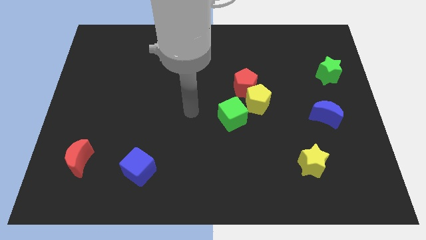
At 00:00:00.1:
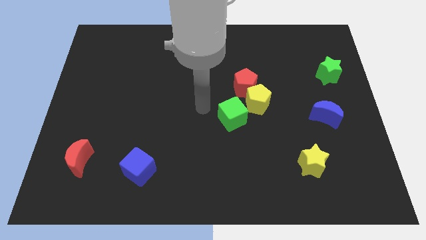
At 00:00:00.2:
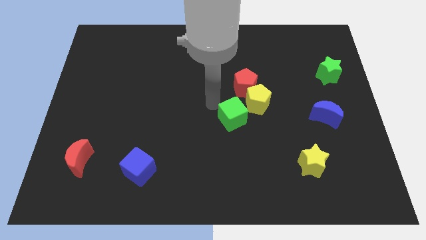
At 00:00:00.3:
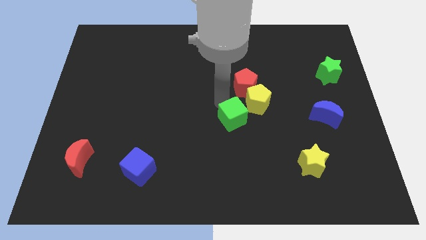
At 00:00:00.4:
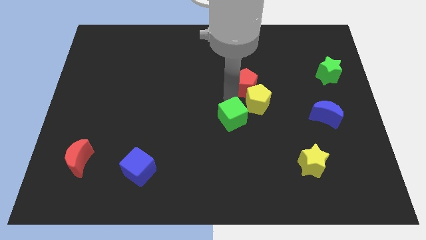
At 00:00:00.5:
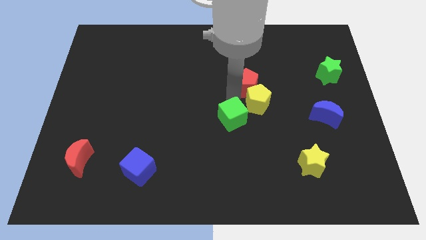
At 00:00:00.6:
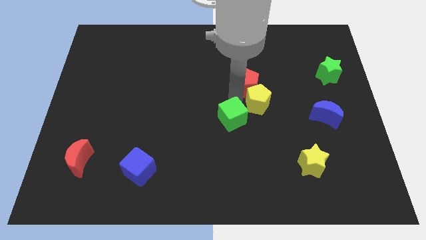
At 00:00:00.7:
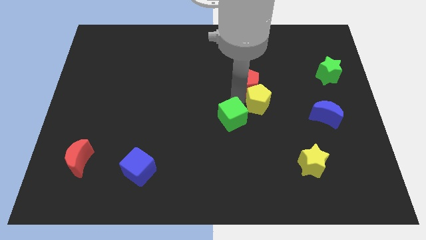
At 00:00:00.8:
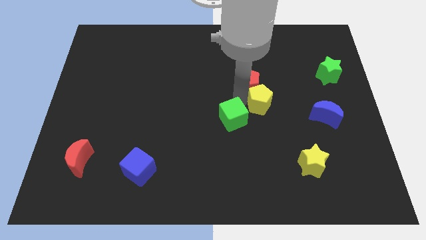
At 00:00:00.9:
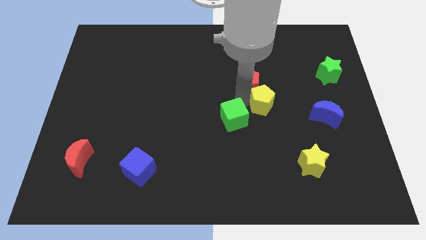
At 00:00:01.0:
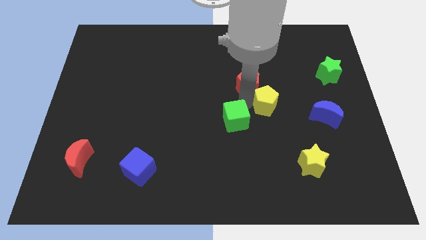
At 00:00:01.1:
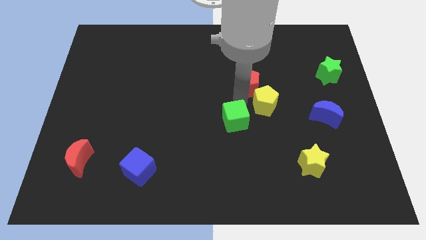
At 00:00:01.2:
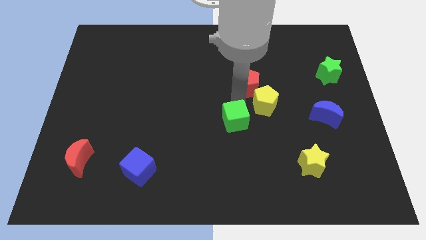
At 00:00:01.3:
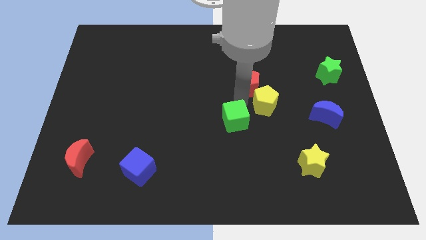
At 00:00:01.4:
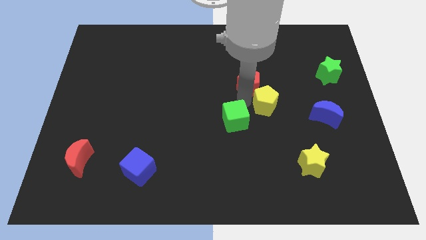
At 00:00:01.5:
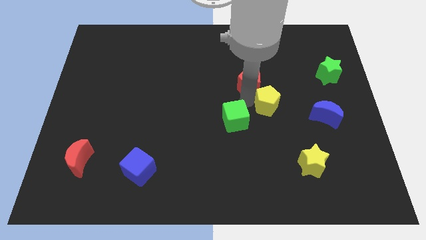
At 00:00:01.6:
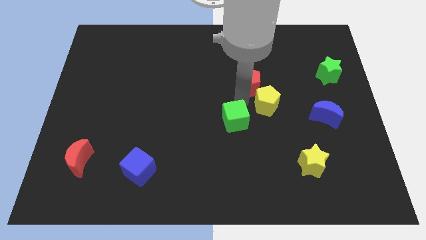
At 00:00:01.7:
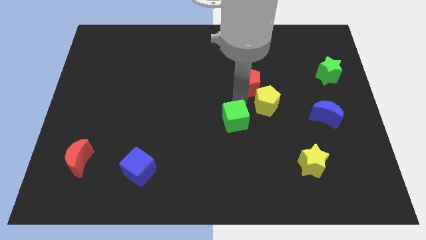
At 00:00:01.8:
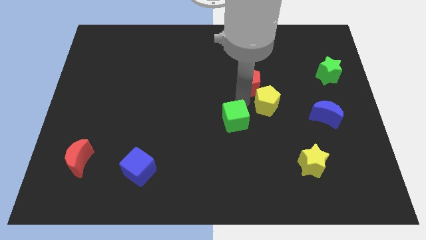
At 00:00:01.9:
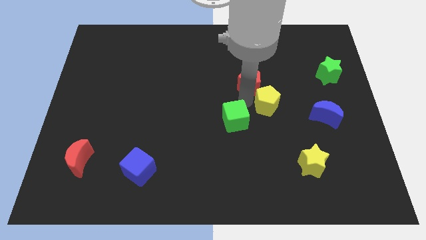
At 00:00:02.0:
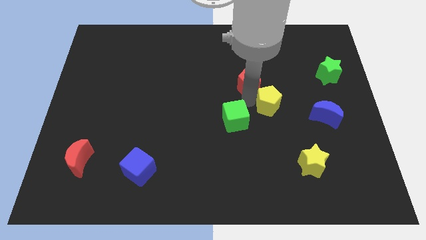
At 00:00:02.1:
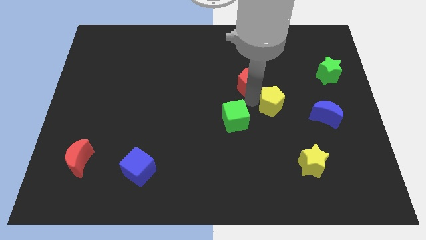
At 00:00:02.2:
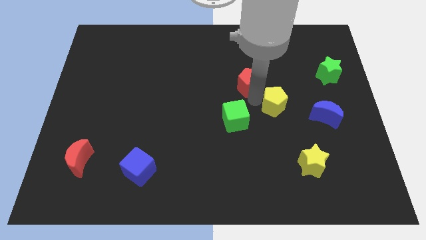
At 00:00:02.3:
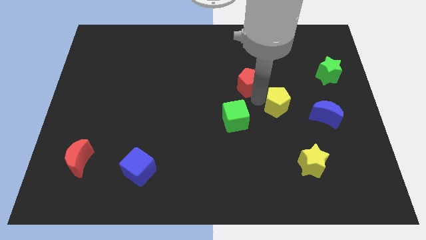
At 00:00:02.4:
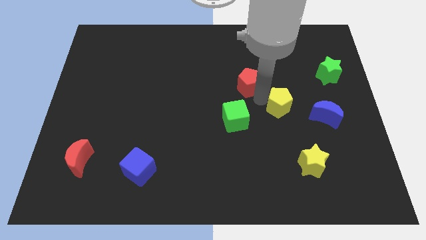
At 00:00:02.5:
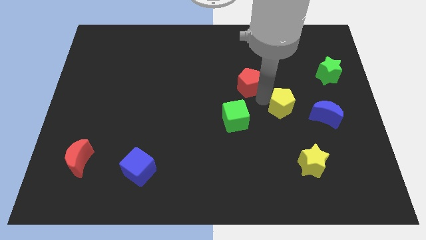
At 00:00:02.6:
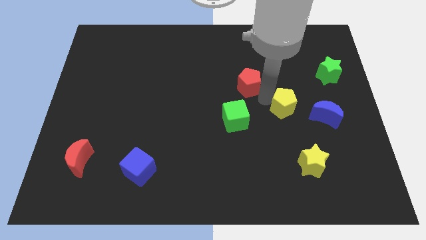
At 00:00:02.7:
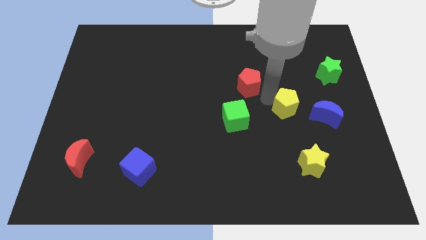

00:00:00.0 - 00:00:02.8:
move the yellow pentagon away from the red pentagon and green cube

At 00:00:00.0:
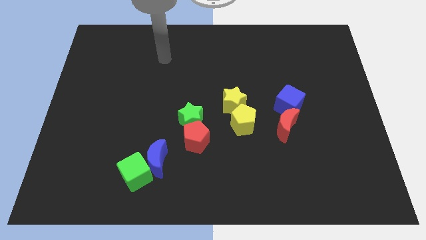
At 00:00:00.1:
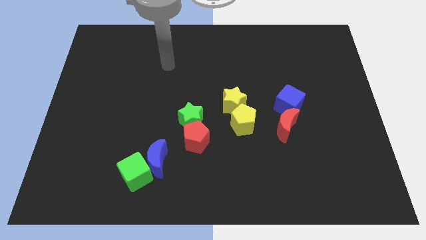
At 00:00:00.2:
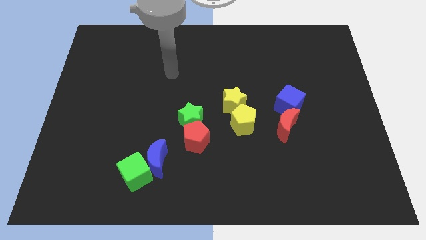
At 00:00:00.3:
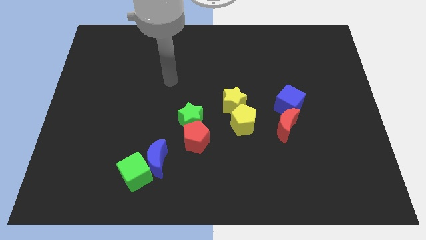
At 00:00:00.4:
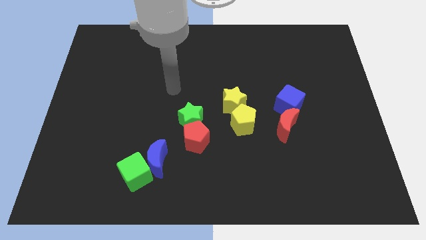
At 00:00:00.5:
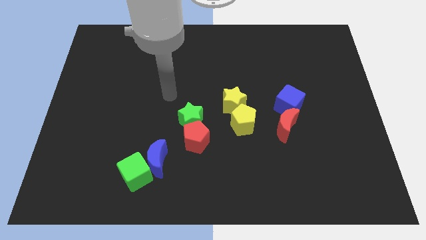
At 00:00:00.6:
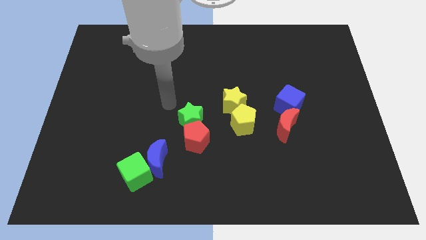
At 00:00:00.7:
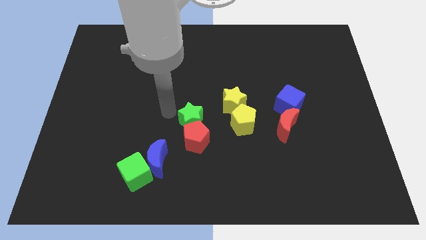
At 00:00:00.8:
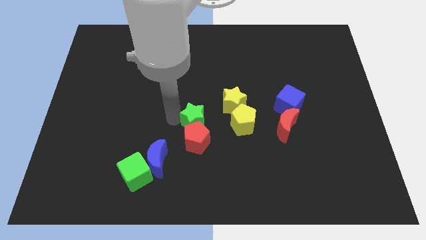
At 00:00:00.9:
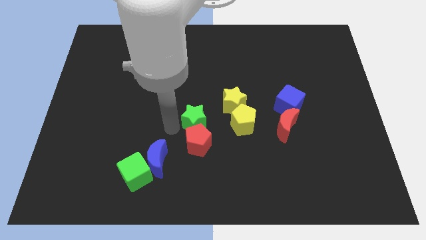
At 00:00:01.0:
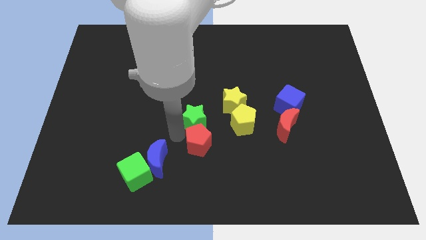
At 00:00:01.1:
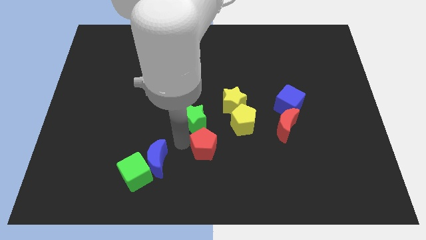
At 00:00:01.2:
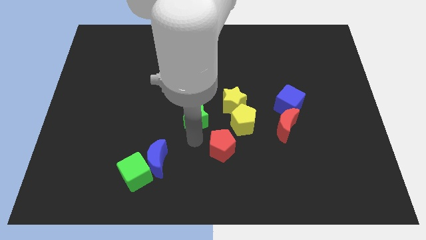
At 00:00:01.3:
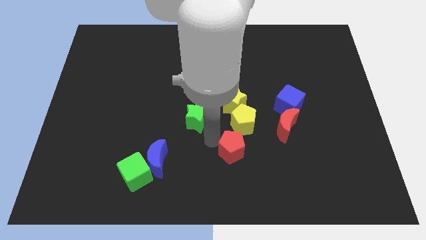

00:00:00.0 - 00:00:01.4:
pull the green star apart from the red pentagon

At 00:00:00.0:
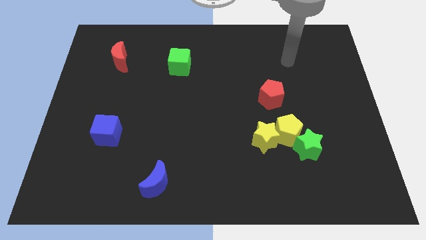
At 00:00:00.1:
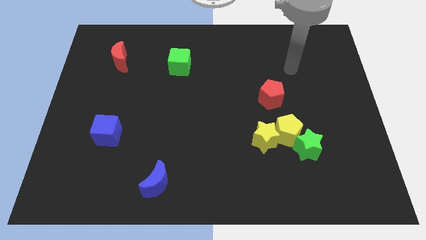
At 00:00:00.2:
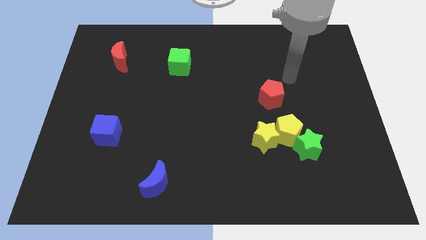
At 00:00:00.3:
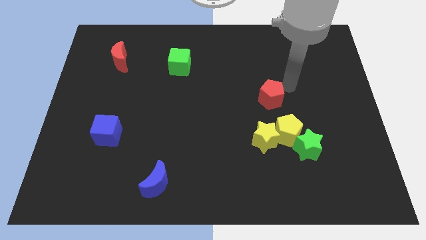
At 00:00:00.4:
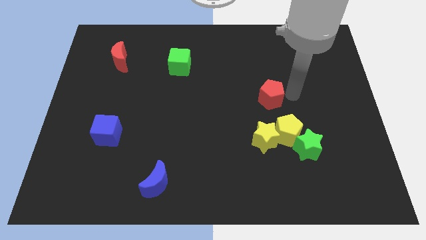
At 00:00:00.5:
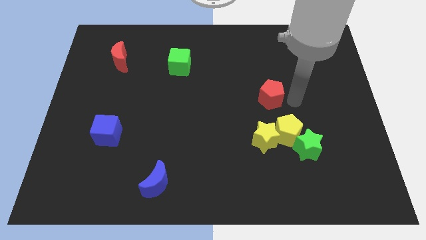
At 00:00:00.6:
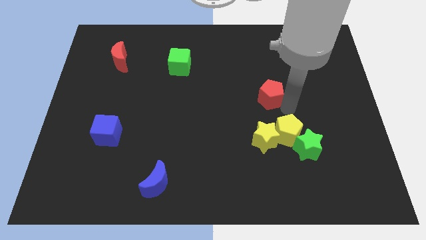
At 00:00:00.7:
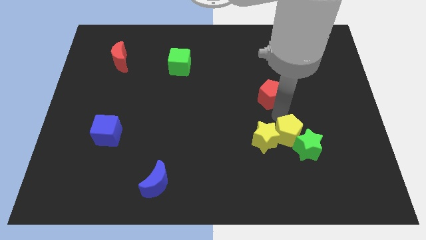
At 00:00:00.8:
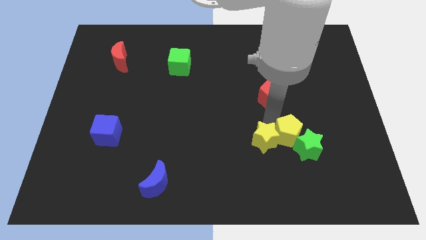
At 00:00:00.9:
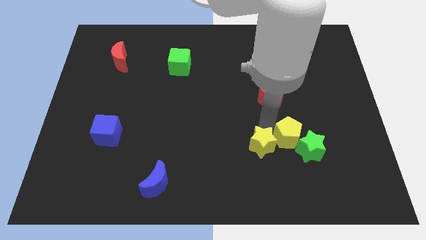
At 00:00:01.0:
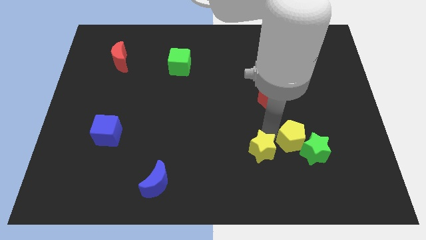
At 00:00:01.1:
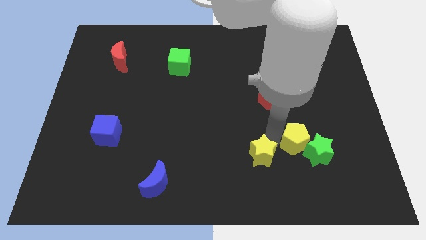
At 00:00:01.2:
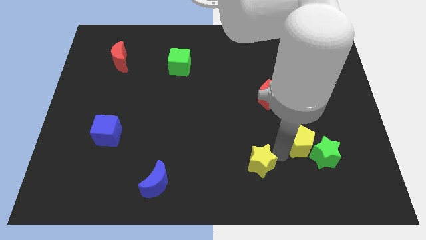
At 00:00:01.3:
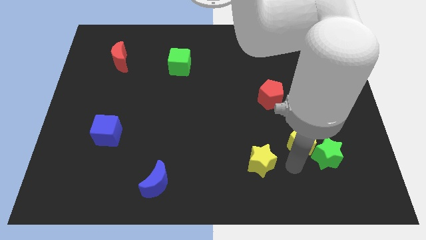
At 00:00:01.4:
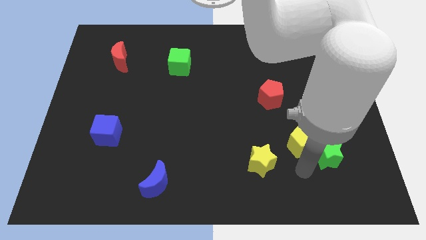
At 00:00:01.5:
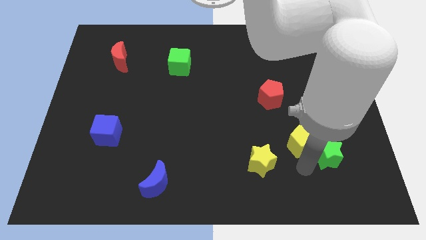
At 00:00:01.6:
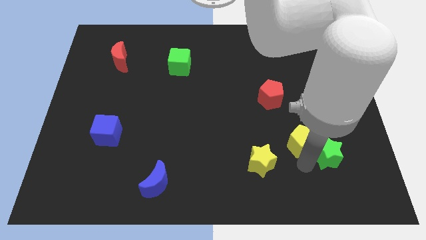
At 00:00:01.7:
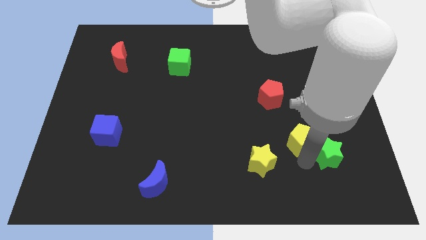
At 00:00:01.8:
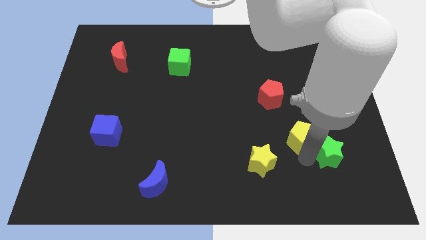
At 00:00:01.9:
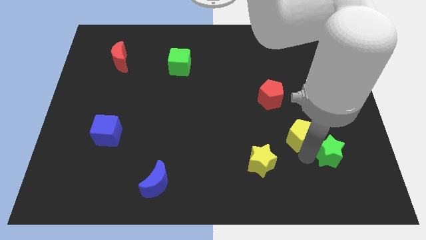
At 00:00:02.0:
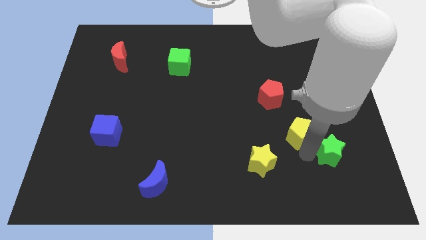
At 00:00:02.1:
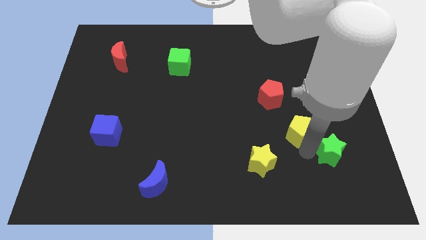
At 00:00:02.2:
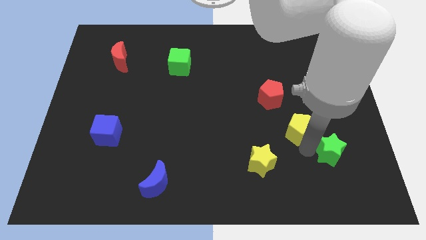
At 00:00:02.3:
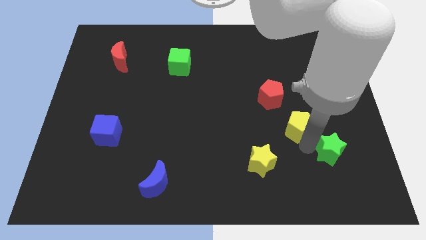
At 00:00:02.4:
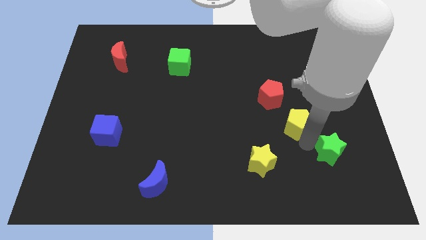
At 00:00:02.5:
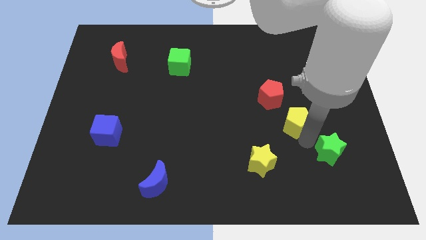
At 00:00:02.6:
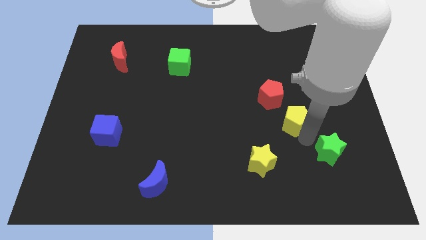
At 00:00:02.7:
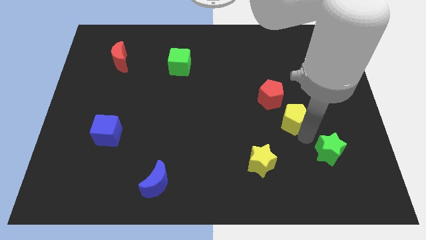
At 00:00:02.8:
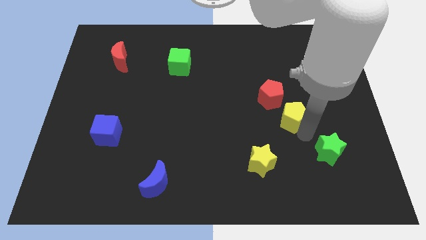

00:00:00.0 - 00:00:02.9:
pull the yellow pentagon apart from the green star and yellow star

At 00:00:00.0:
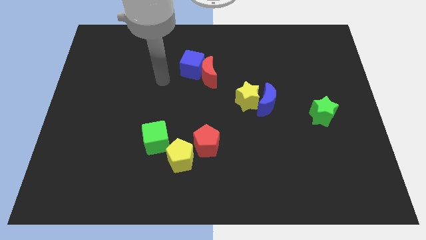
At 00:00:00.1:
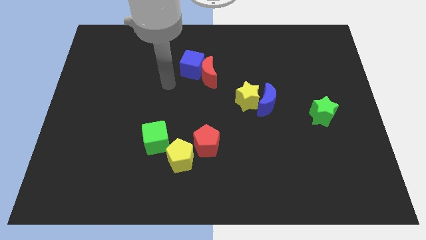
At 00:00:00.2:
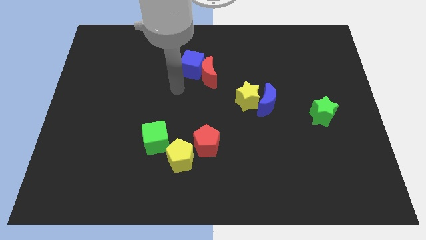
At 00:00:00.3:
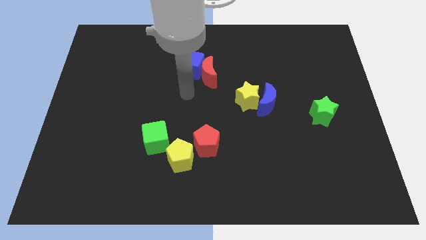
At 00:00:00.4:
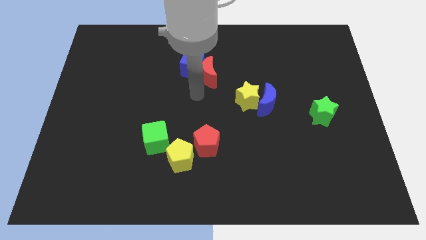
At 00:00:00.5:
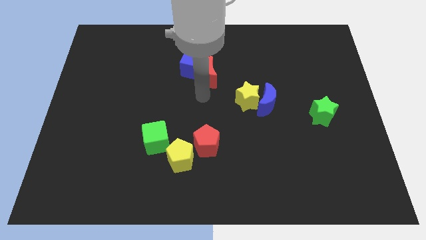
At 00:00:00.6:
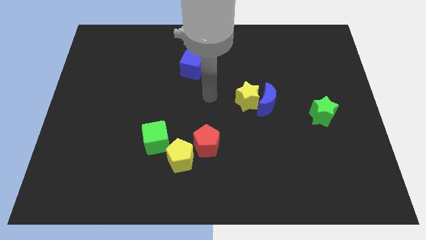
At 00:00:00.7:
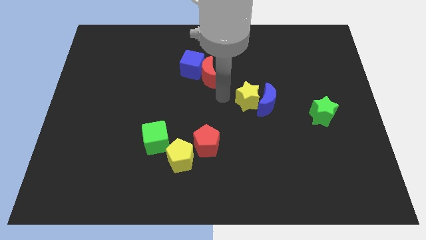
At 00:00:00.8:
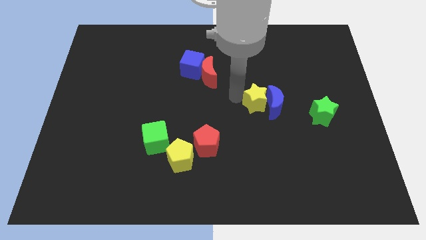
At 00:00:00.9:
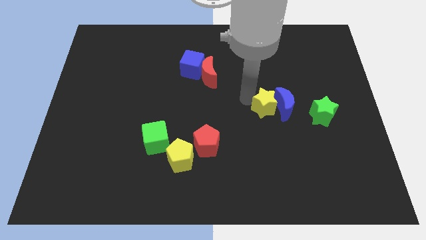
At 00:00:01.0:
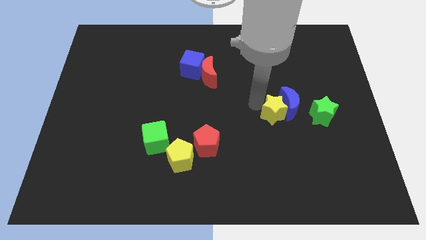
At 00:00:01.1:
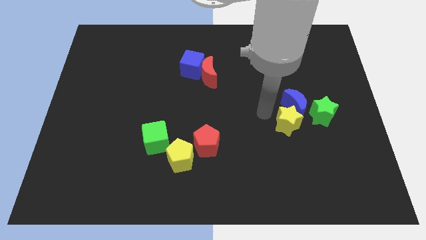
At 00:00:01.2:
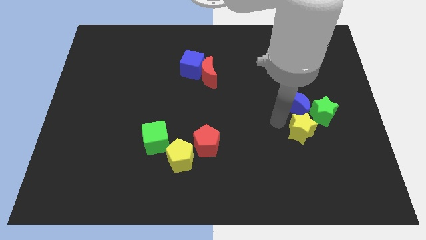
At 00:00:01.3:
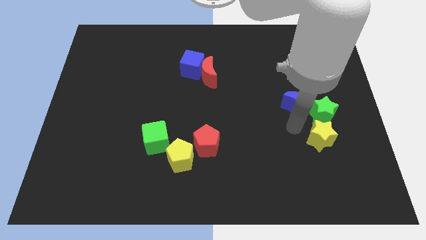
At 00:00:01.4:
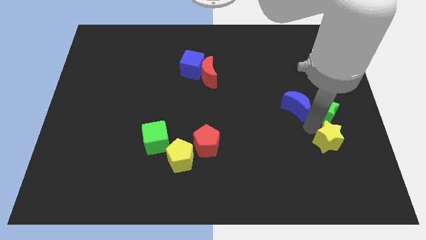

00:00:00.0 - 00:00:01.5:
move the blue moon away from the yellow star

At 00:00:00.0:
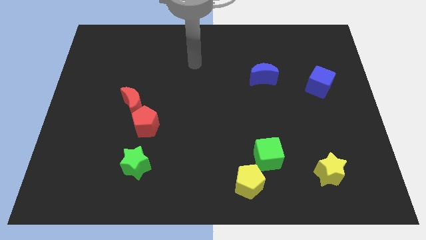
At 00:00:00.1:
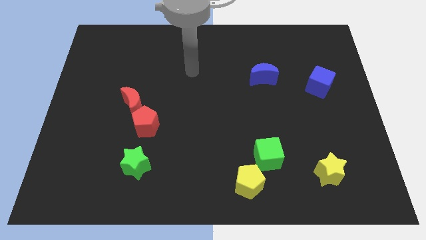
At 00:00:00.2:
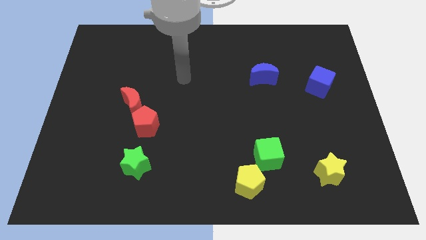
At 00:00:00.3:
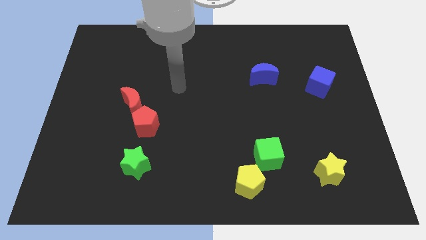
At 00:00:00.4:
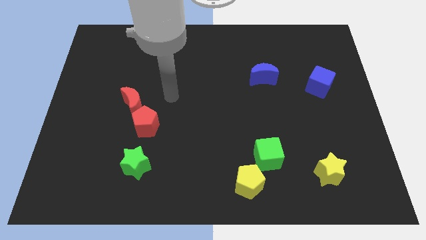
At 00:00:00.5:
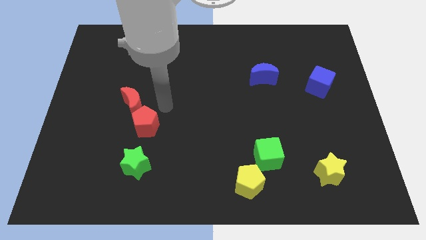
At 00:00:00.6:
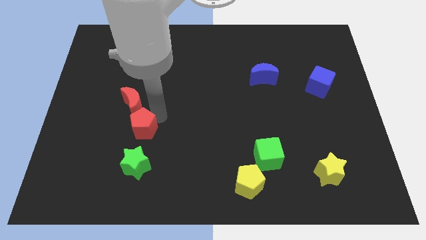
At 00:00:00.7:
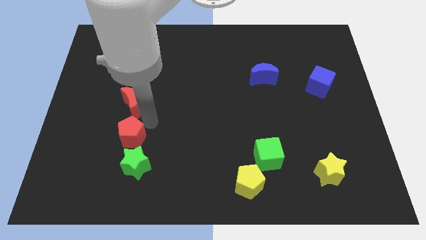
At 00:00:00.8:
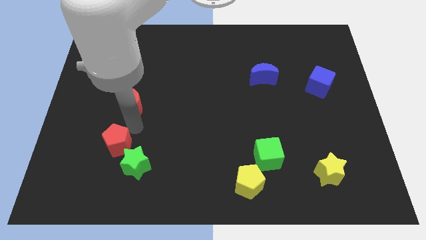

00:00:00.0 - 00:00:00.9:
separate the red moon from the red pentagon
